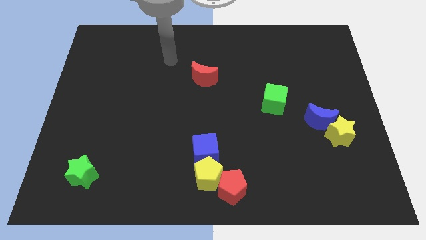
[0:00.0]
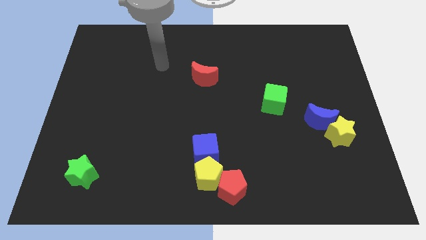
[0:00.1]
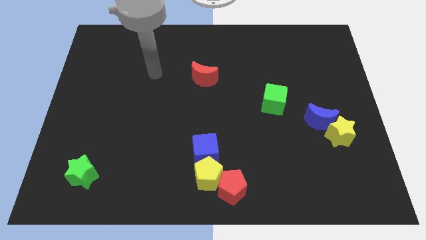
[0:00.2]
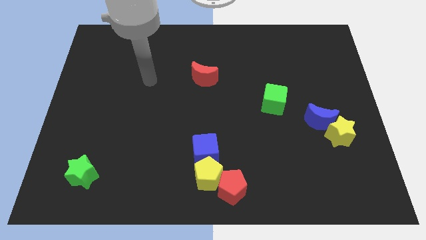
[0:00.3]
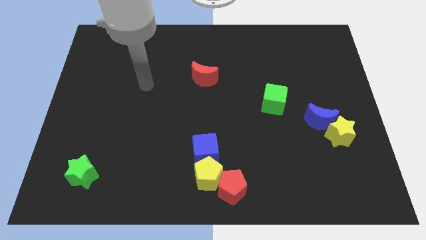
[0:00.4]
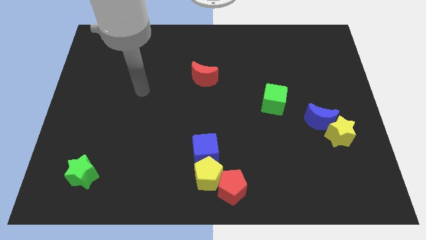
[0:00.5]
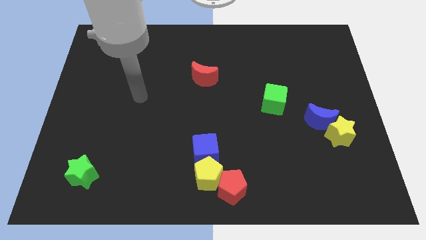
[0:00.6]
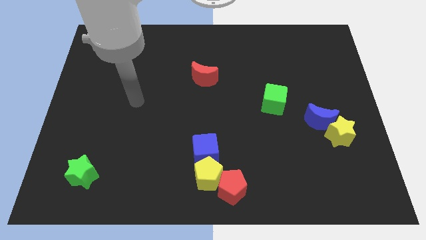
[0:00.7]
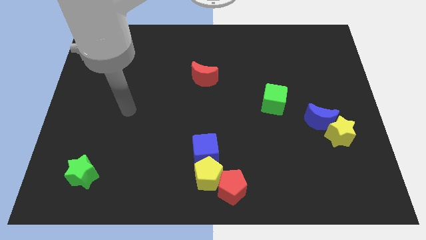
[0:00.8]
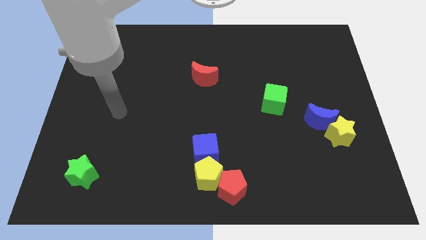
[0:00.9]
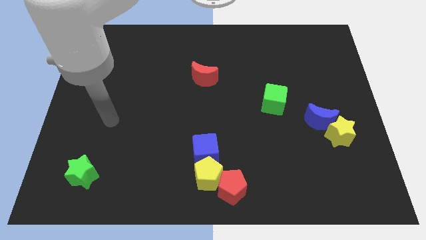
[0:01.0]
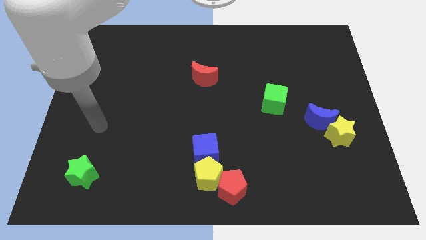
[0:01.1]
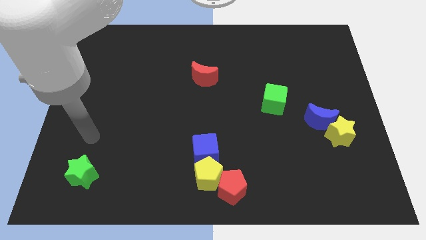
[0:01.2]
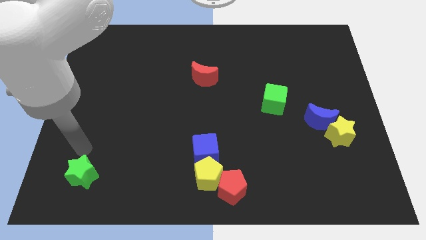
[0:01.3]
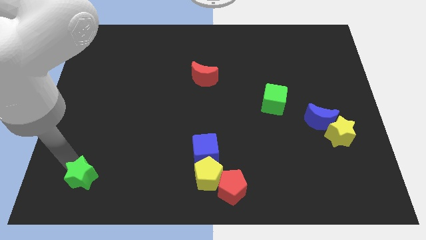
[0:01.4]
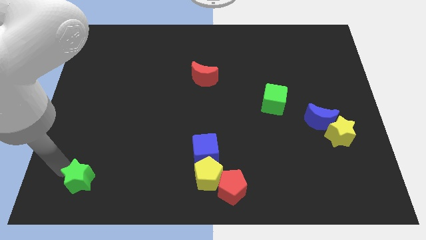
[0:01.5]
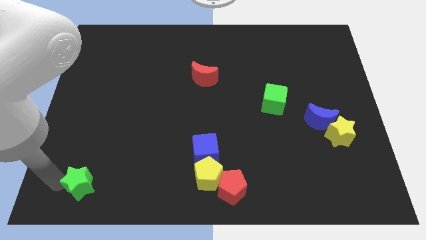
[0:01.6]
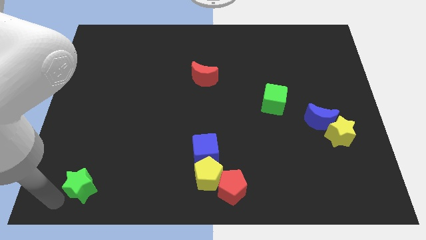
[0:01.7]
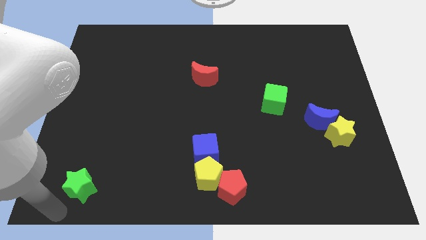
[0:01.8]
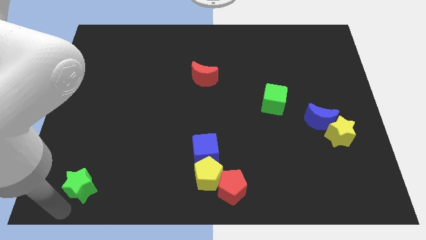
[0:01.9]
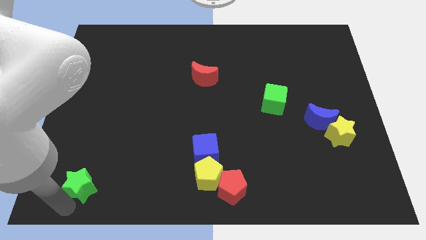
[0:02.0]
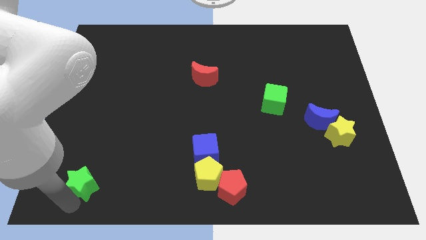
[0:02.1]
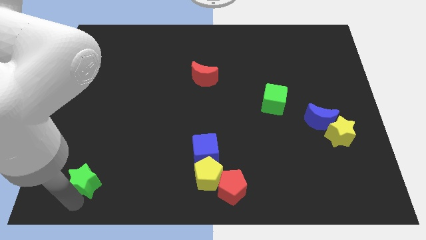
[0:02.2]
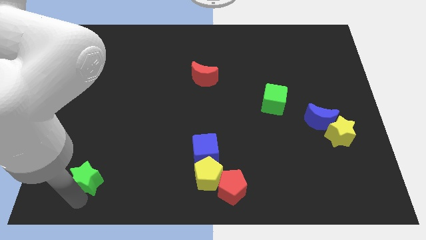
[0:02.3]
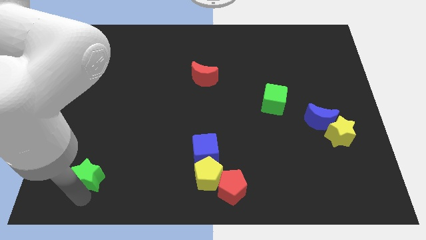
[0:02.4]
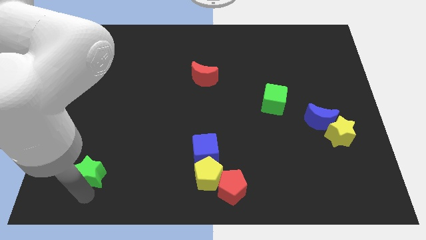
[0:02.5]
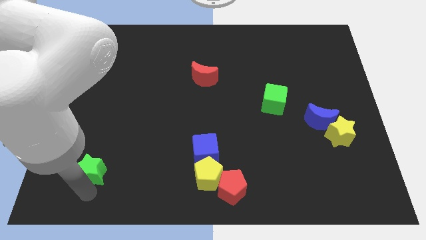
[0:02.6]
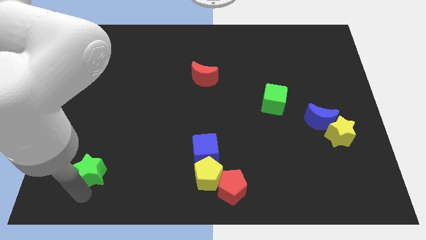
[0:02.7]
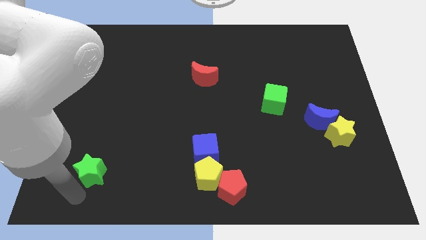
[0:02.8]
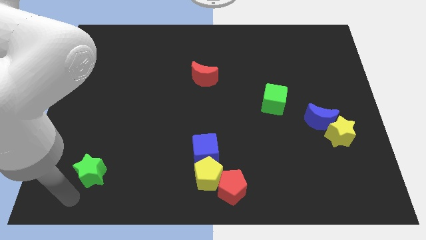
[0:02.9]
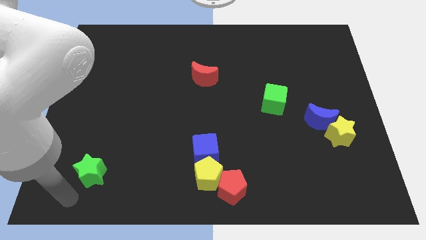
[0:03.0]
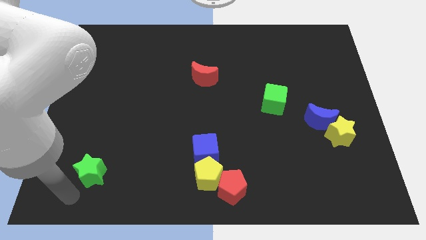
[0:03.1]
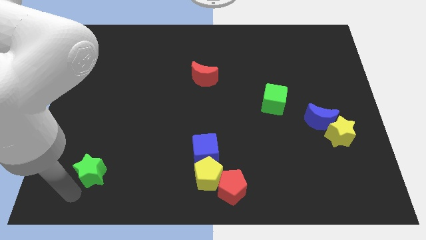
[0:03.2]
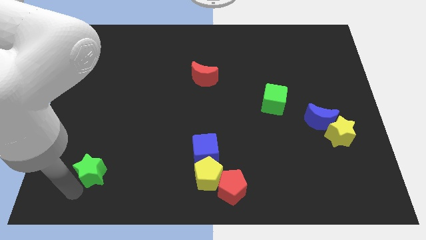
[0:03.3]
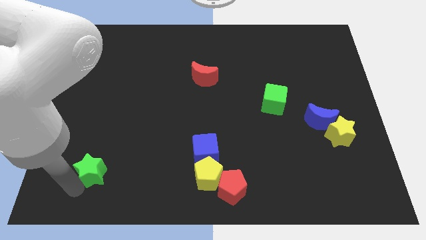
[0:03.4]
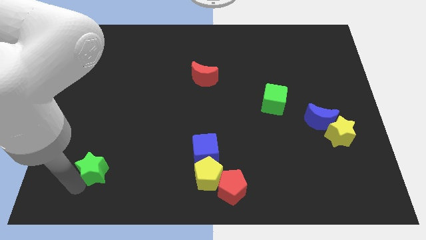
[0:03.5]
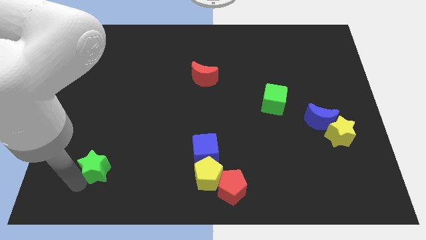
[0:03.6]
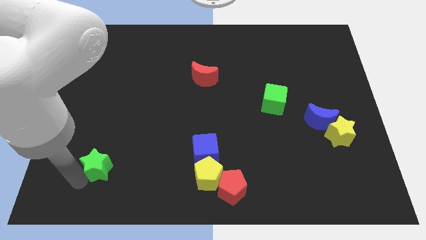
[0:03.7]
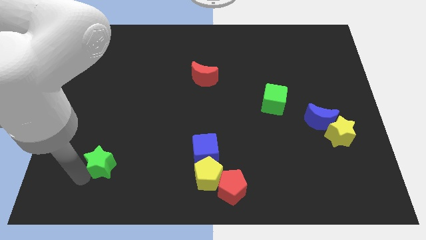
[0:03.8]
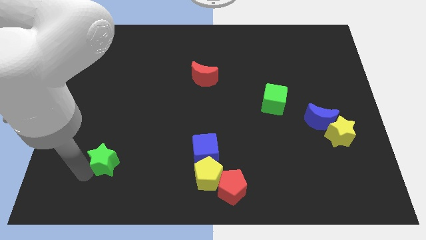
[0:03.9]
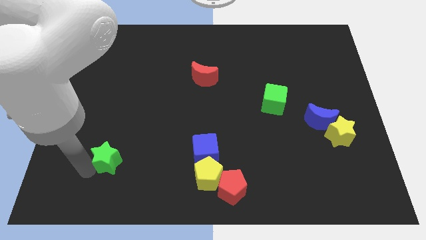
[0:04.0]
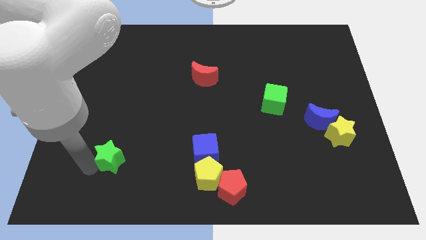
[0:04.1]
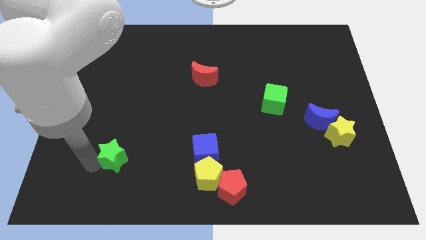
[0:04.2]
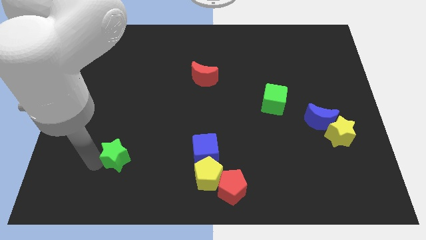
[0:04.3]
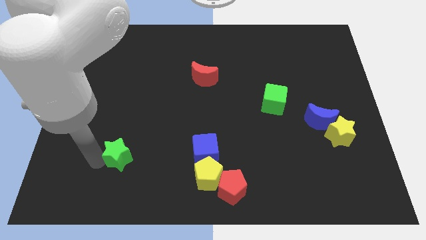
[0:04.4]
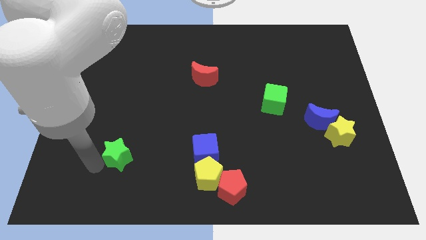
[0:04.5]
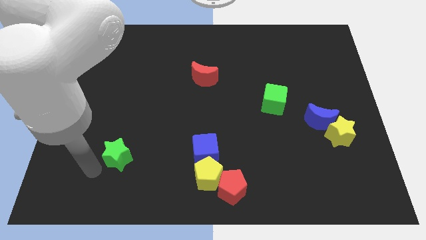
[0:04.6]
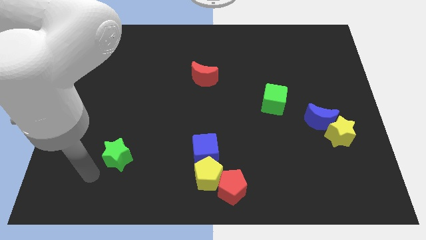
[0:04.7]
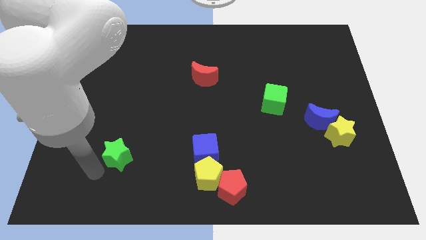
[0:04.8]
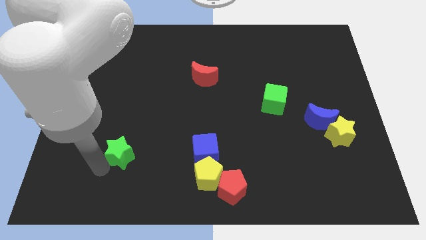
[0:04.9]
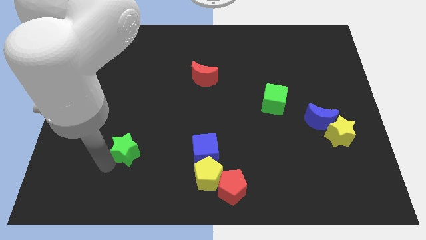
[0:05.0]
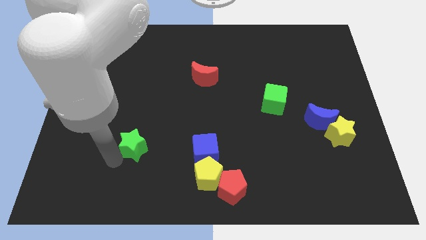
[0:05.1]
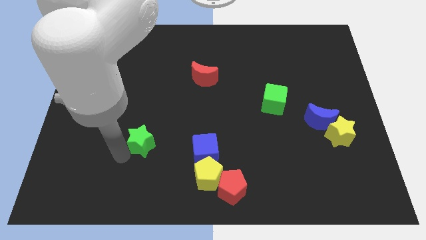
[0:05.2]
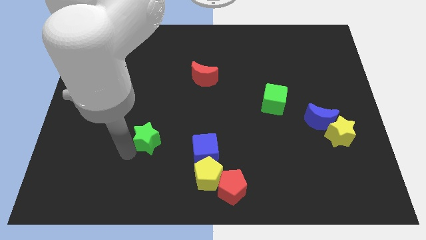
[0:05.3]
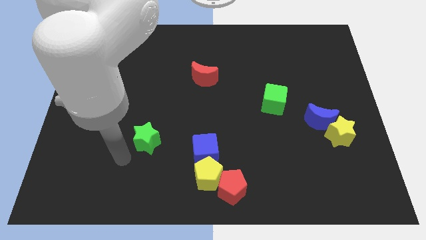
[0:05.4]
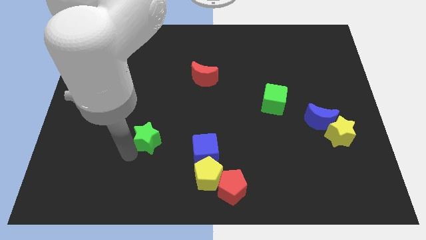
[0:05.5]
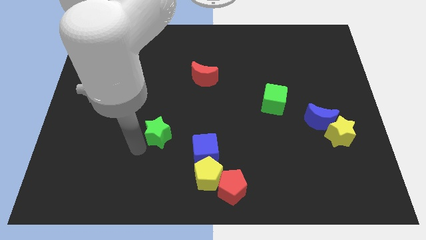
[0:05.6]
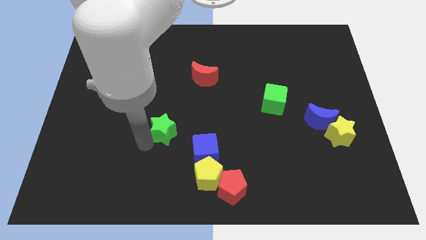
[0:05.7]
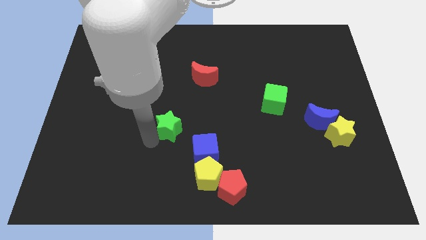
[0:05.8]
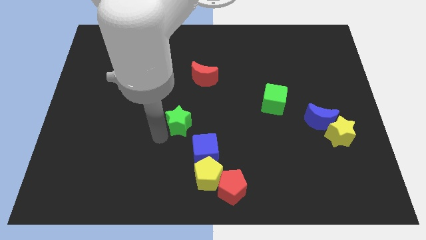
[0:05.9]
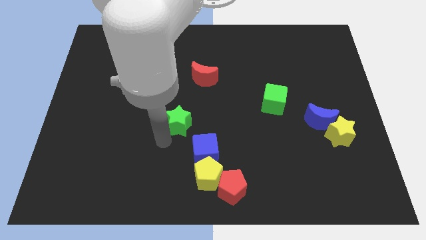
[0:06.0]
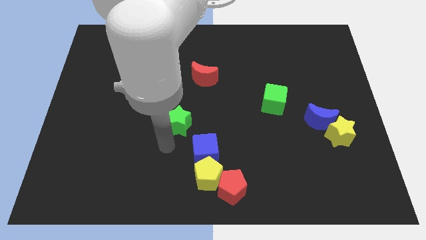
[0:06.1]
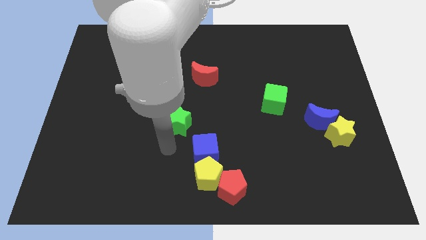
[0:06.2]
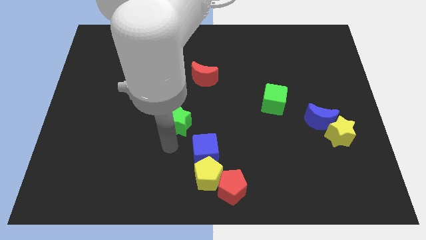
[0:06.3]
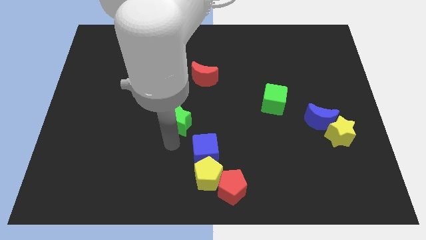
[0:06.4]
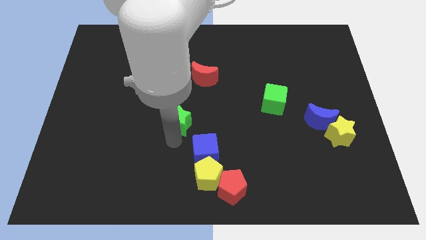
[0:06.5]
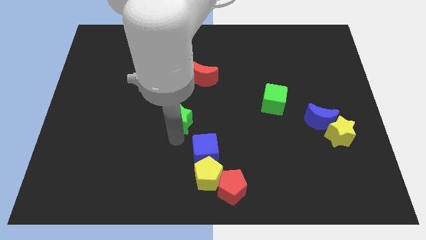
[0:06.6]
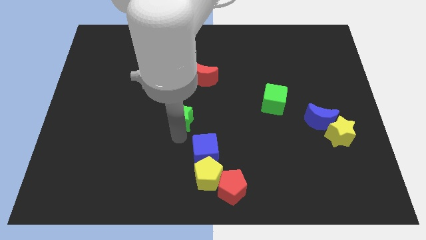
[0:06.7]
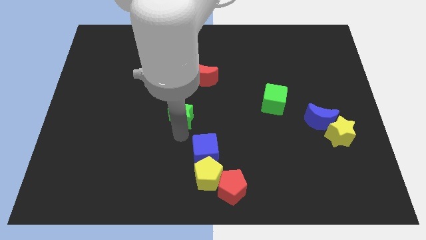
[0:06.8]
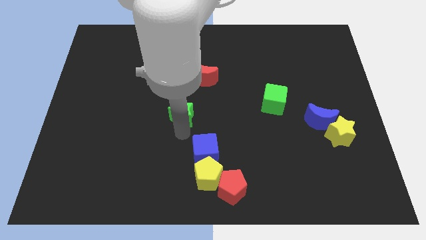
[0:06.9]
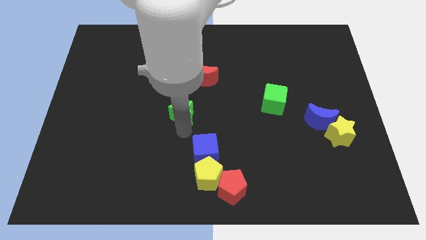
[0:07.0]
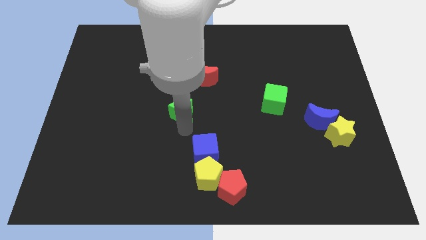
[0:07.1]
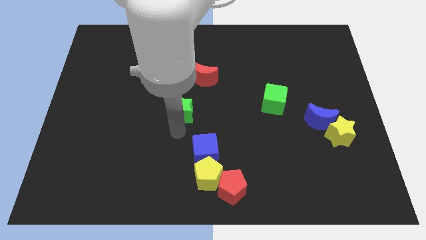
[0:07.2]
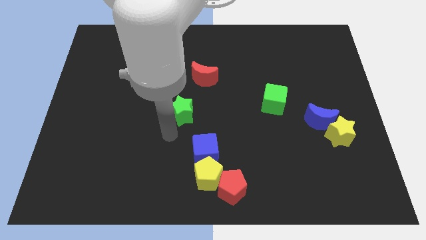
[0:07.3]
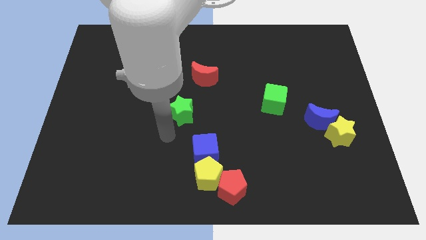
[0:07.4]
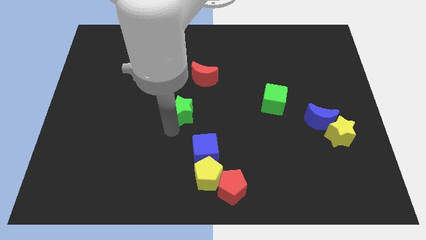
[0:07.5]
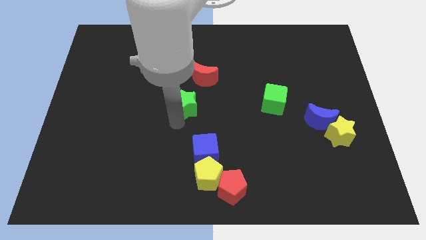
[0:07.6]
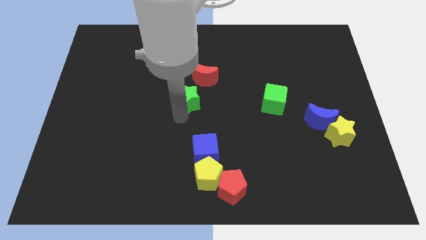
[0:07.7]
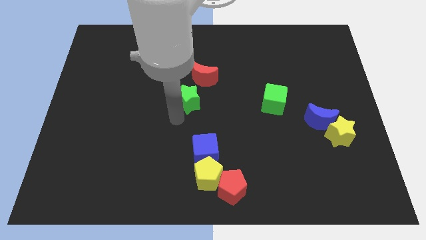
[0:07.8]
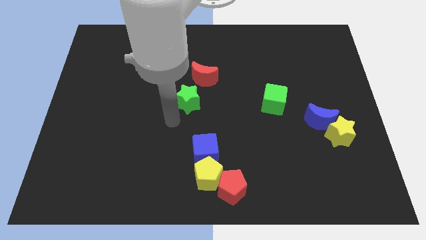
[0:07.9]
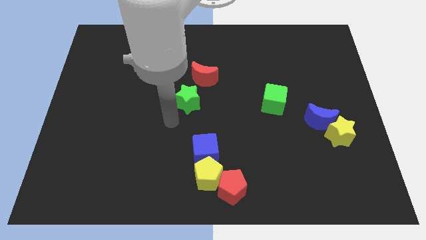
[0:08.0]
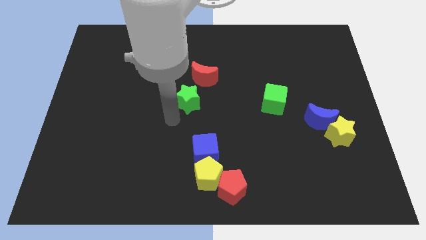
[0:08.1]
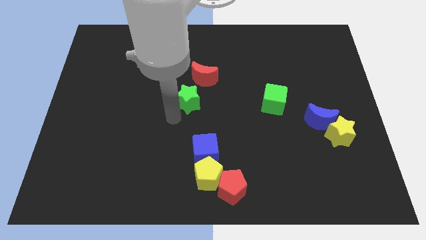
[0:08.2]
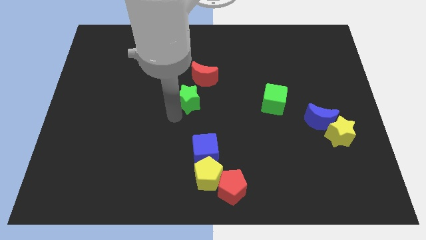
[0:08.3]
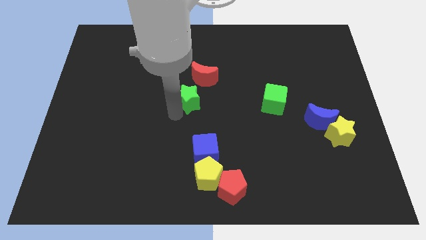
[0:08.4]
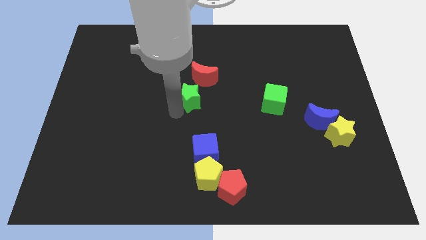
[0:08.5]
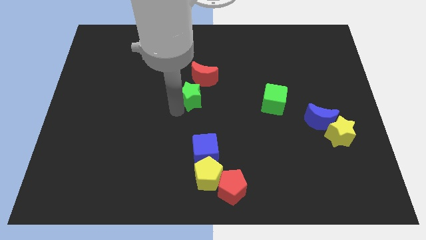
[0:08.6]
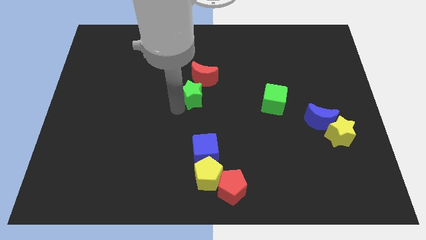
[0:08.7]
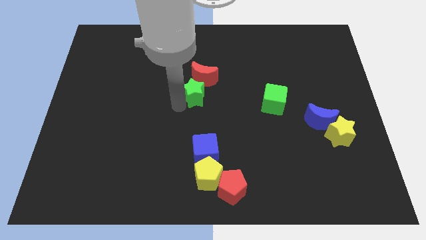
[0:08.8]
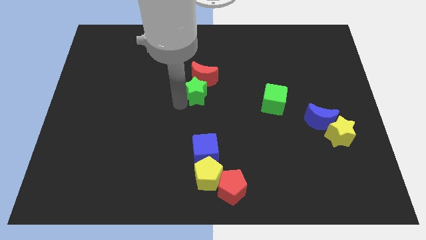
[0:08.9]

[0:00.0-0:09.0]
move the green star towards the red moon
